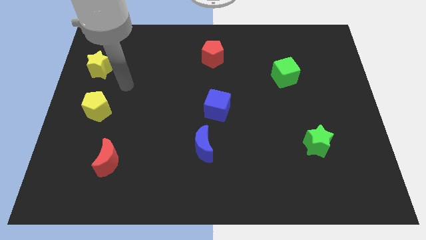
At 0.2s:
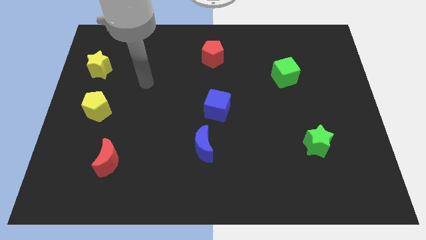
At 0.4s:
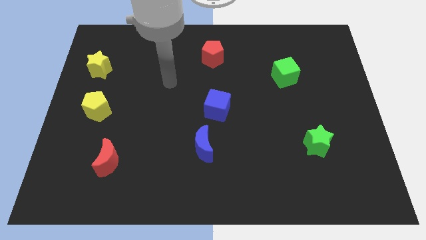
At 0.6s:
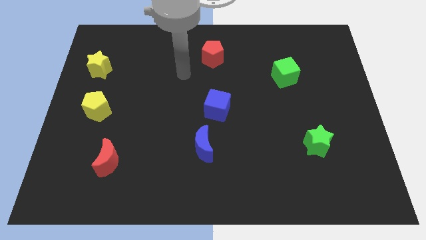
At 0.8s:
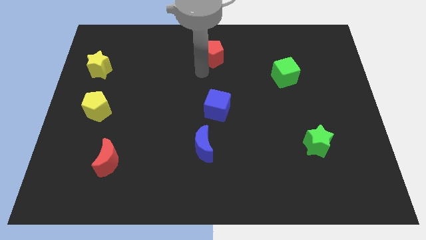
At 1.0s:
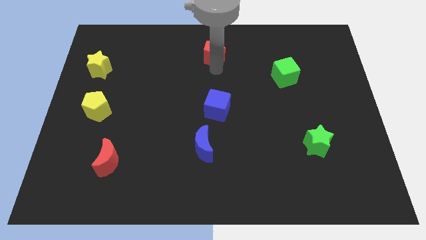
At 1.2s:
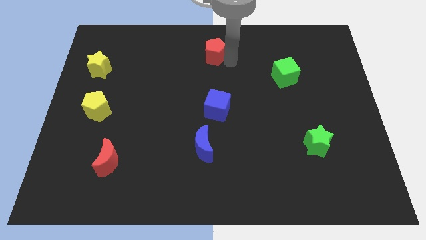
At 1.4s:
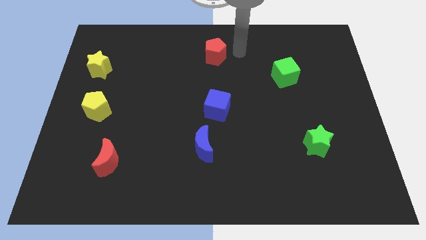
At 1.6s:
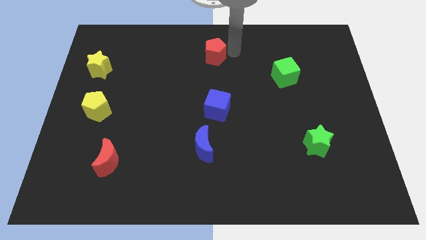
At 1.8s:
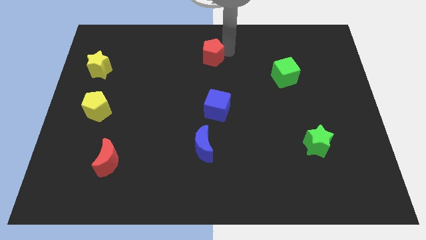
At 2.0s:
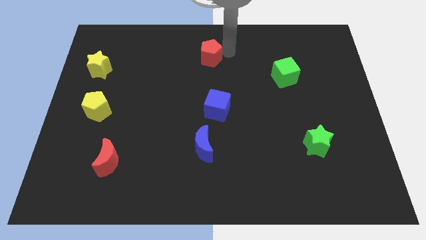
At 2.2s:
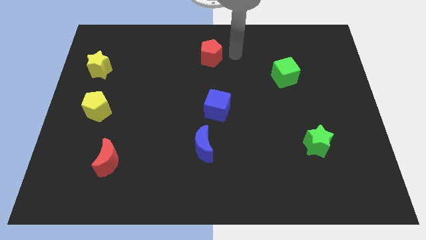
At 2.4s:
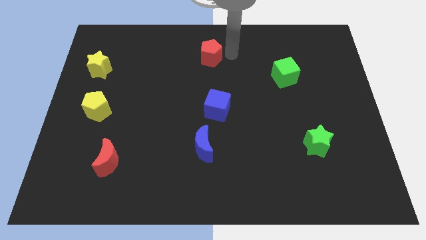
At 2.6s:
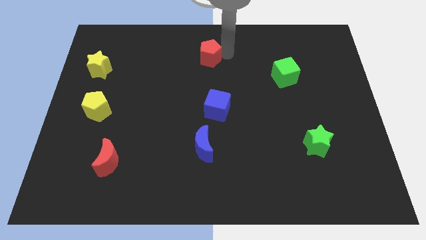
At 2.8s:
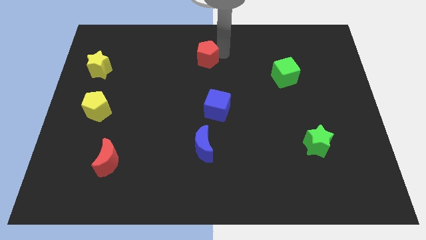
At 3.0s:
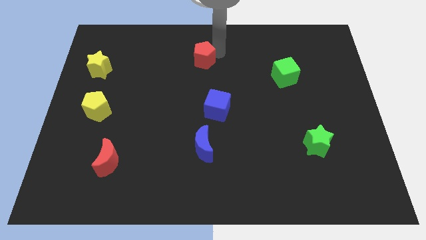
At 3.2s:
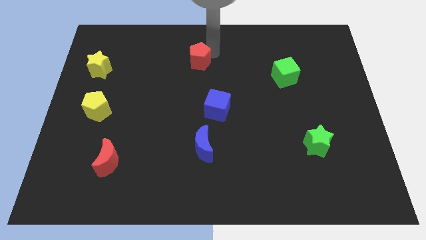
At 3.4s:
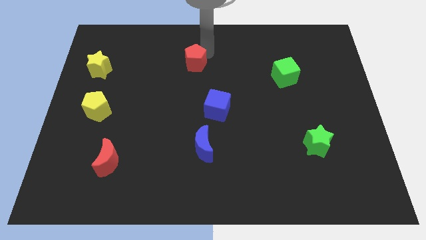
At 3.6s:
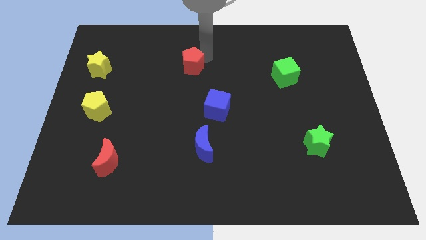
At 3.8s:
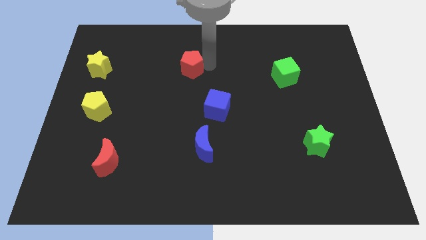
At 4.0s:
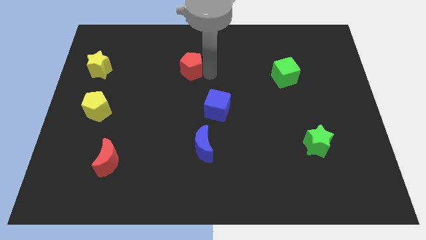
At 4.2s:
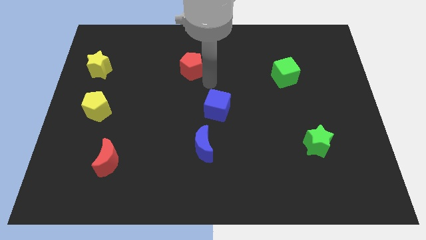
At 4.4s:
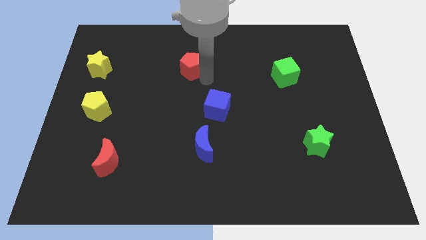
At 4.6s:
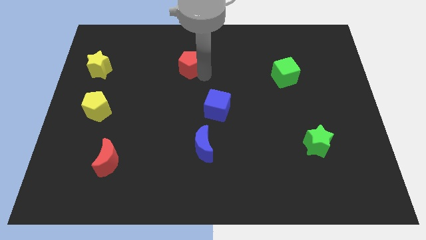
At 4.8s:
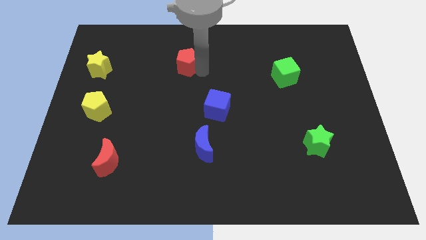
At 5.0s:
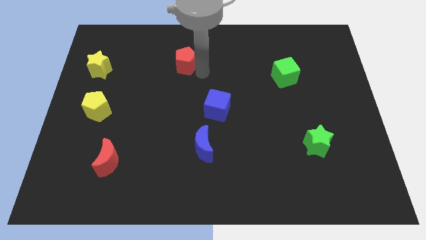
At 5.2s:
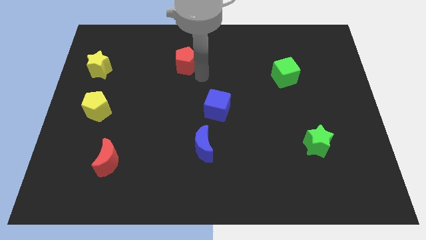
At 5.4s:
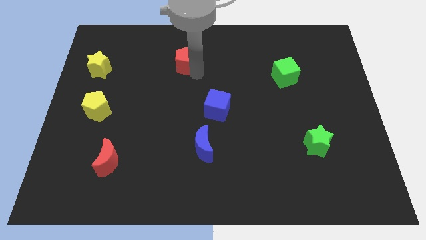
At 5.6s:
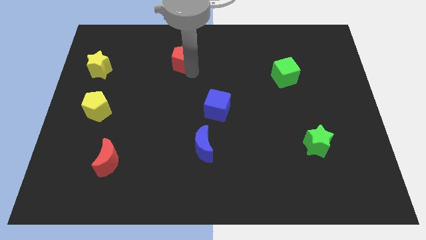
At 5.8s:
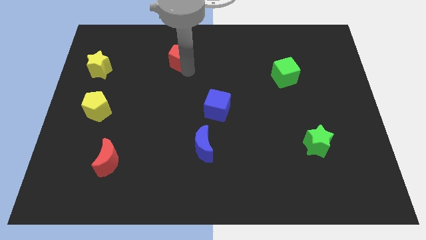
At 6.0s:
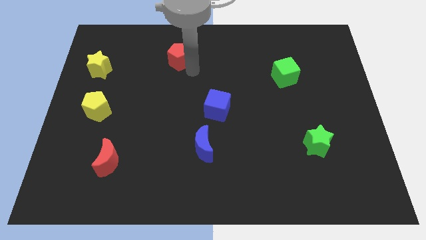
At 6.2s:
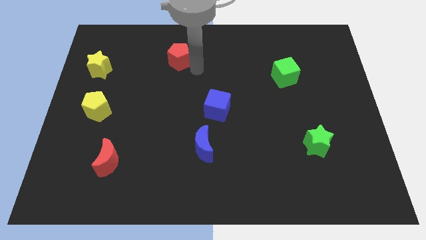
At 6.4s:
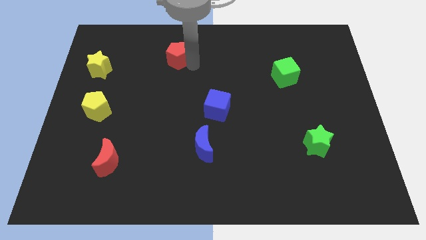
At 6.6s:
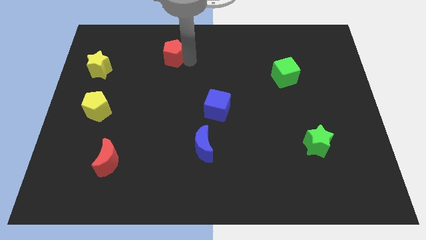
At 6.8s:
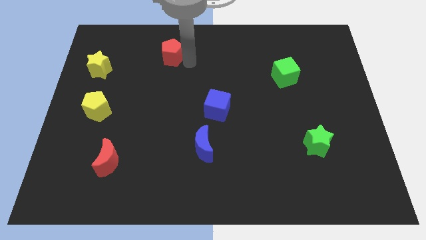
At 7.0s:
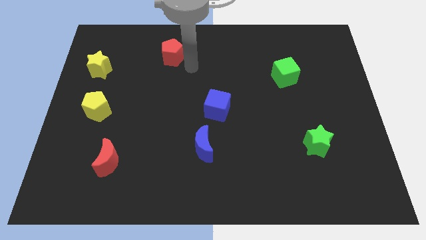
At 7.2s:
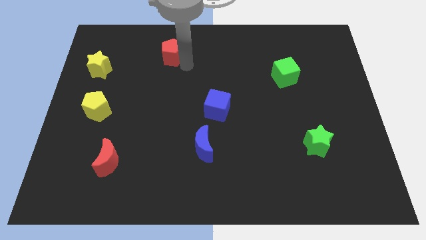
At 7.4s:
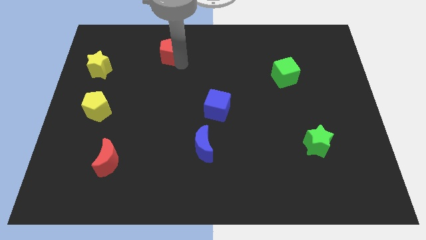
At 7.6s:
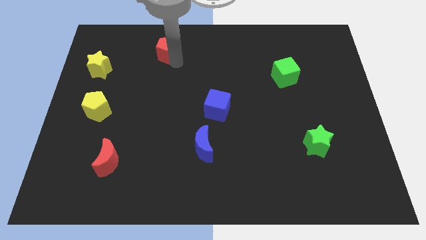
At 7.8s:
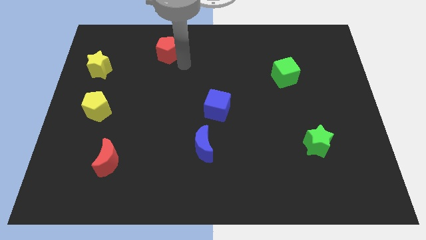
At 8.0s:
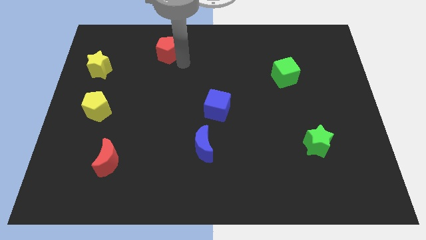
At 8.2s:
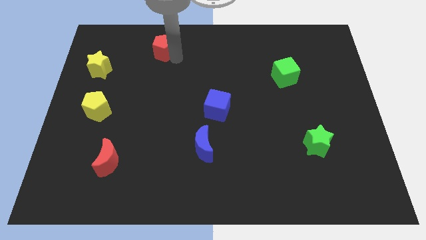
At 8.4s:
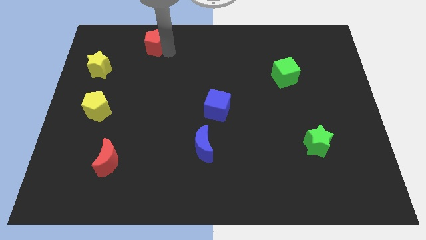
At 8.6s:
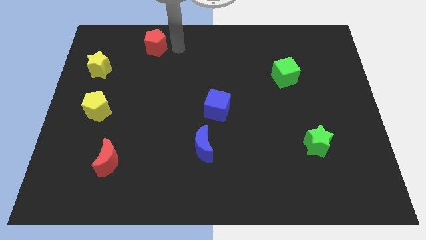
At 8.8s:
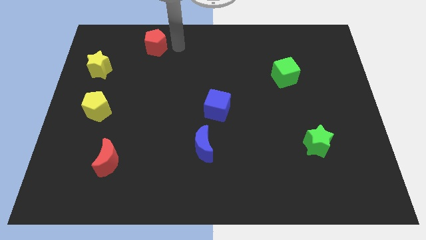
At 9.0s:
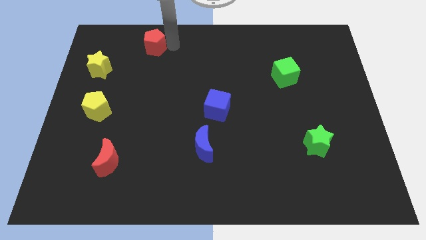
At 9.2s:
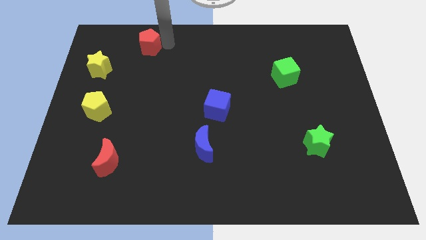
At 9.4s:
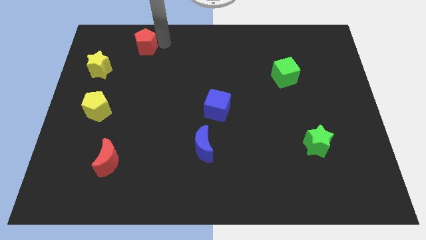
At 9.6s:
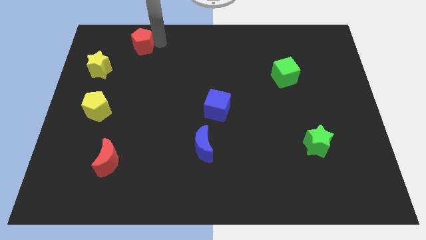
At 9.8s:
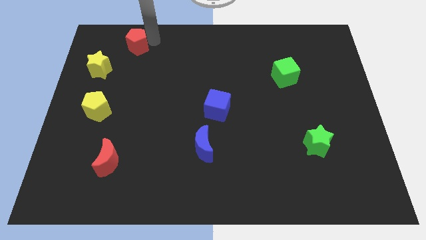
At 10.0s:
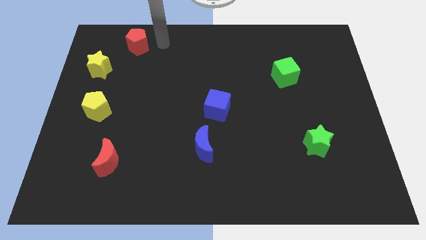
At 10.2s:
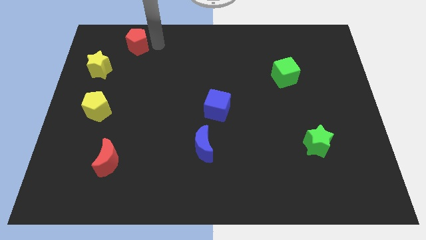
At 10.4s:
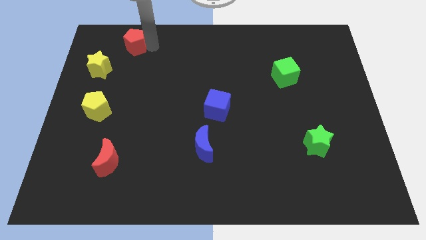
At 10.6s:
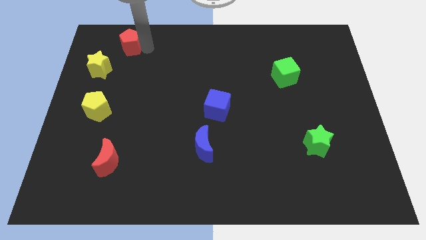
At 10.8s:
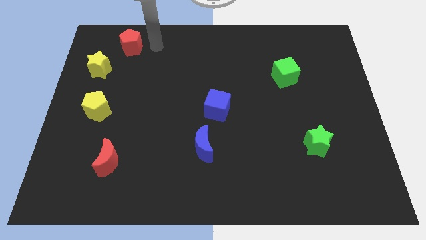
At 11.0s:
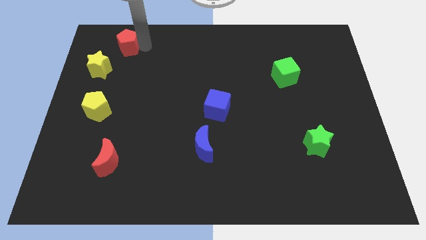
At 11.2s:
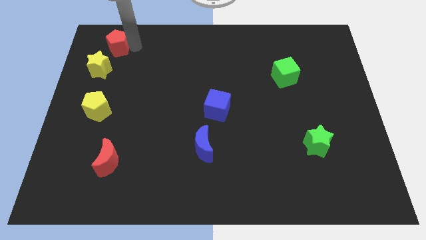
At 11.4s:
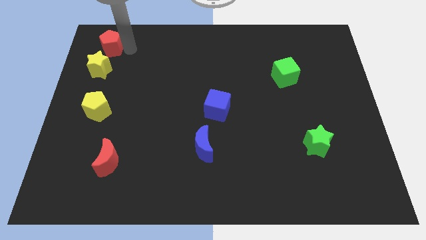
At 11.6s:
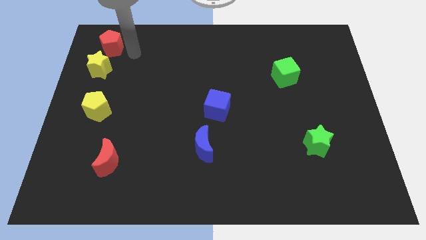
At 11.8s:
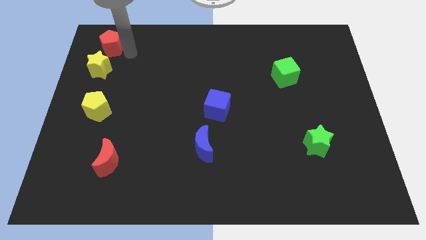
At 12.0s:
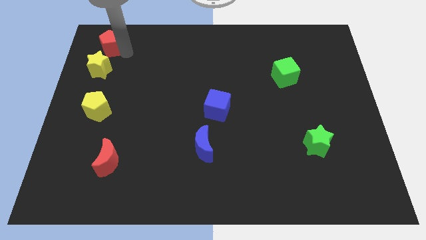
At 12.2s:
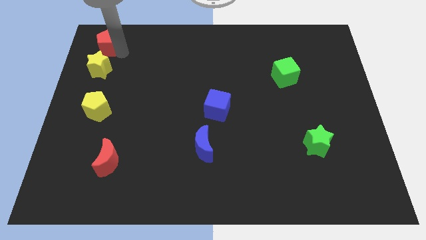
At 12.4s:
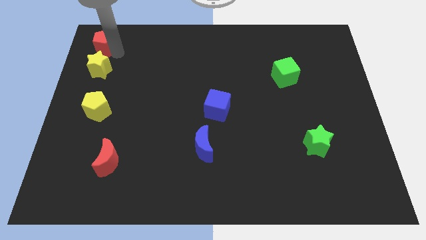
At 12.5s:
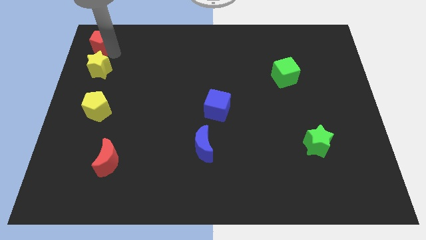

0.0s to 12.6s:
slide the red pentagon to the top left of the board

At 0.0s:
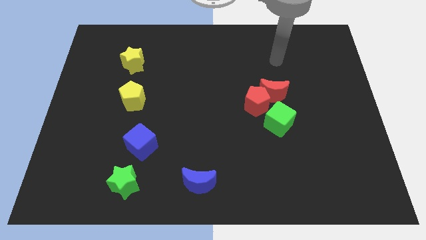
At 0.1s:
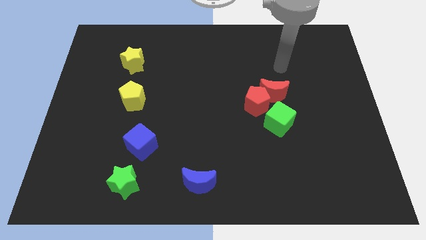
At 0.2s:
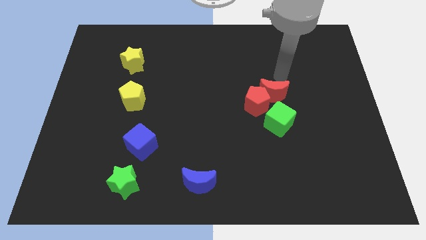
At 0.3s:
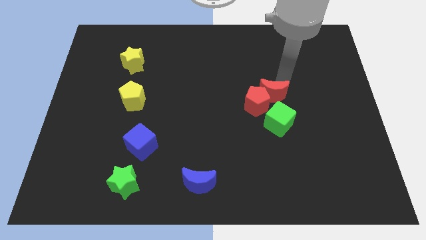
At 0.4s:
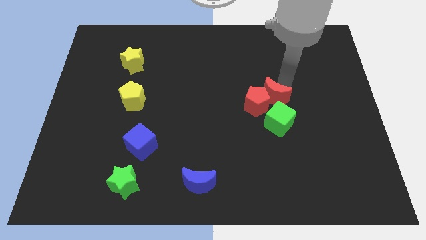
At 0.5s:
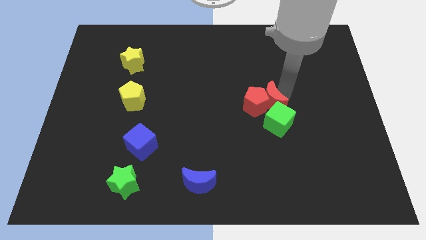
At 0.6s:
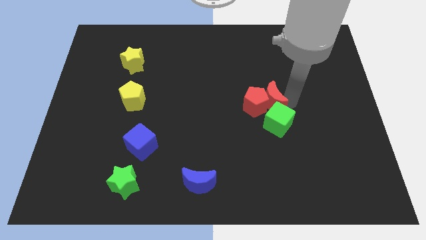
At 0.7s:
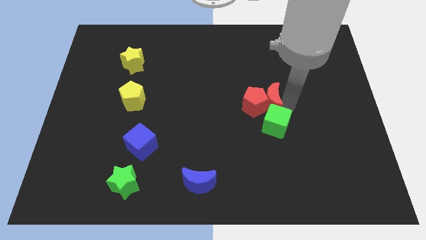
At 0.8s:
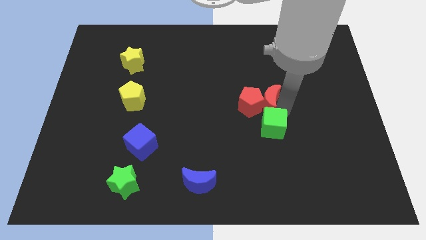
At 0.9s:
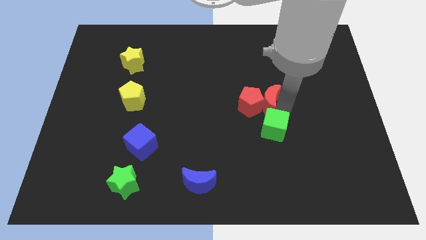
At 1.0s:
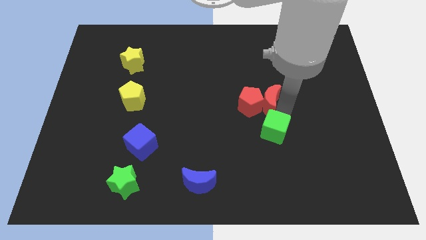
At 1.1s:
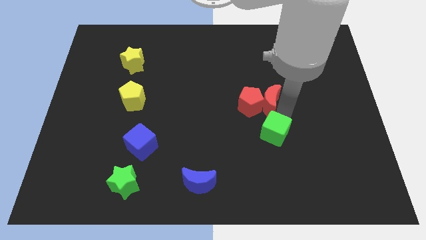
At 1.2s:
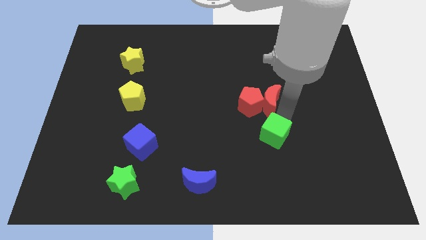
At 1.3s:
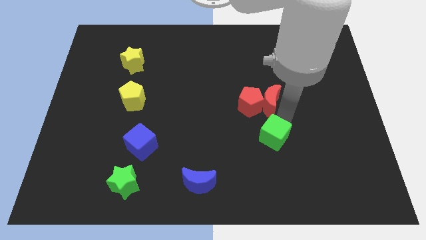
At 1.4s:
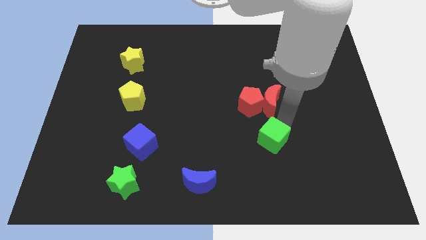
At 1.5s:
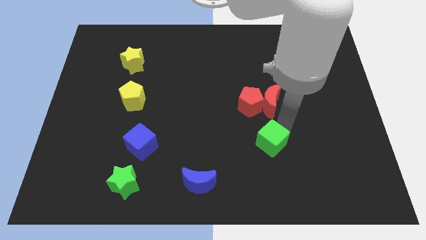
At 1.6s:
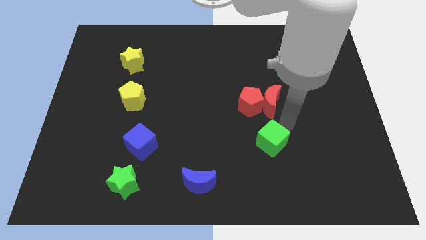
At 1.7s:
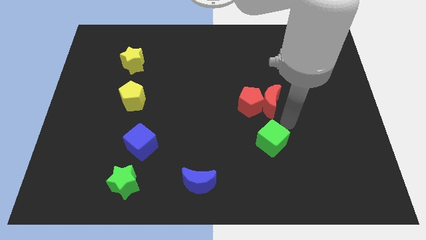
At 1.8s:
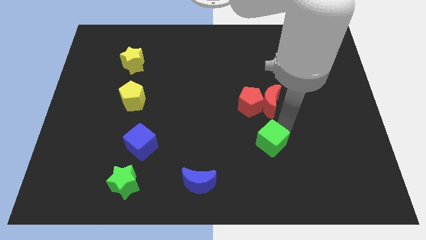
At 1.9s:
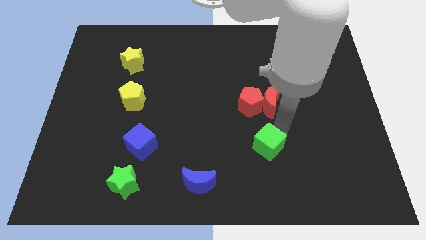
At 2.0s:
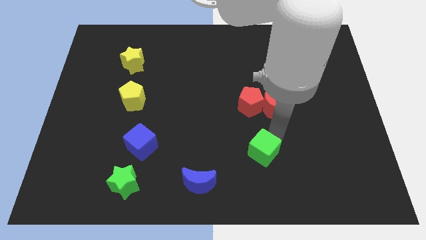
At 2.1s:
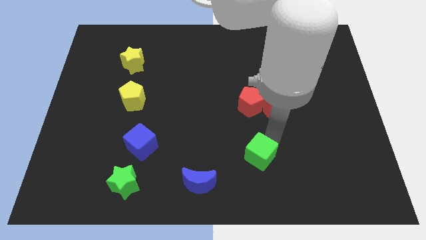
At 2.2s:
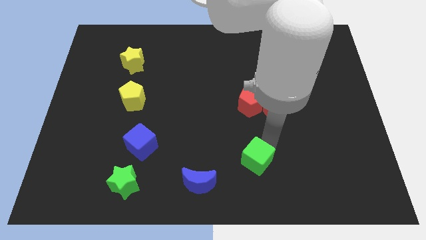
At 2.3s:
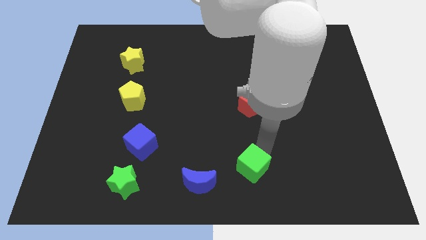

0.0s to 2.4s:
move the green cube to the bottom
